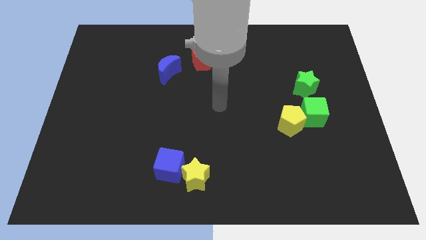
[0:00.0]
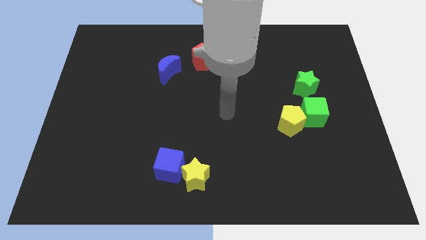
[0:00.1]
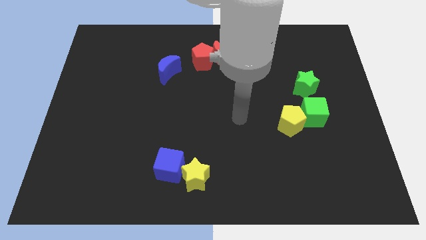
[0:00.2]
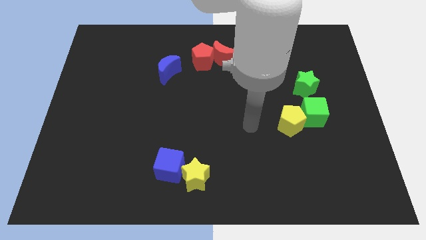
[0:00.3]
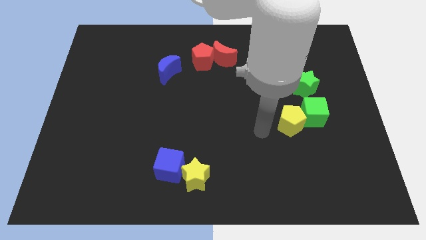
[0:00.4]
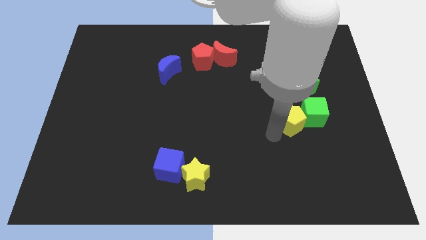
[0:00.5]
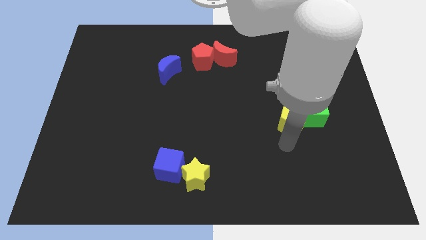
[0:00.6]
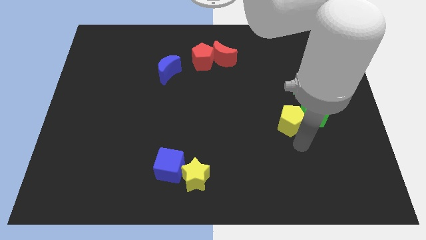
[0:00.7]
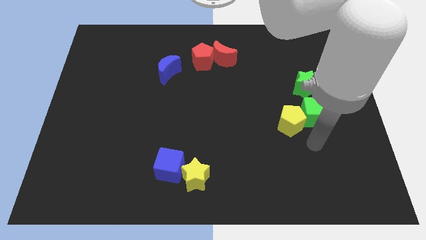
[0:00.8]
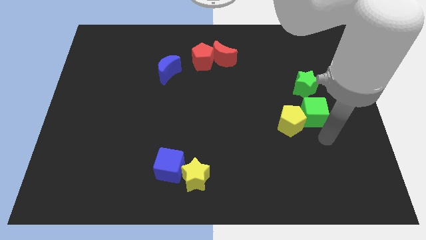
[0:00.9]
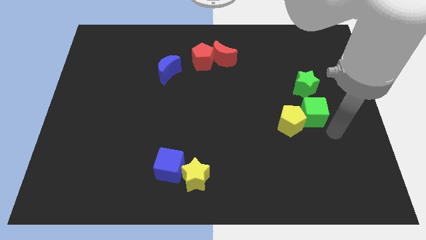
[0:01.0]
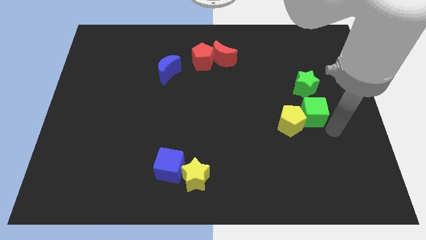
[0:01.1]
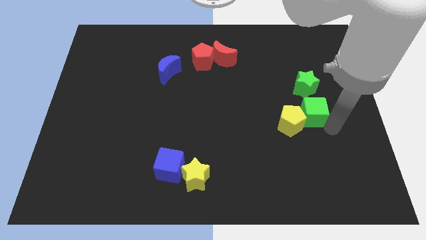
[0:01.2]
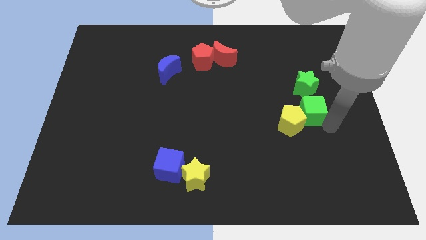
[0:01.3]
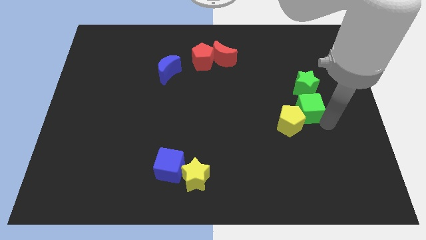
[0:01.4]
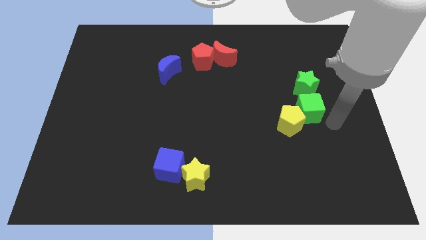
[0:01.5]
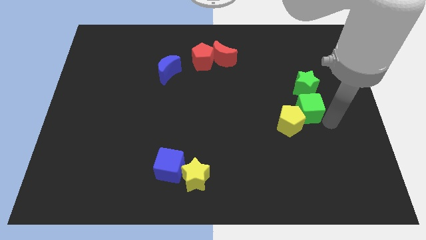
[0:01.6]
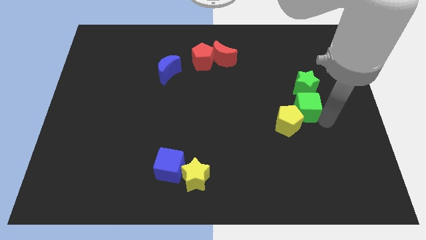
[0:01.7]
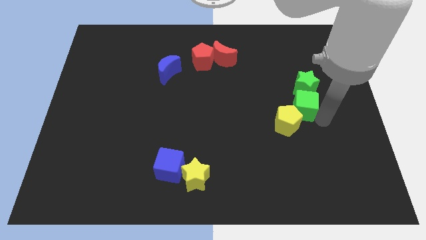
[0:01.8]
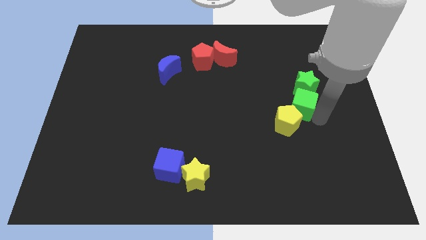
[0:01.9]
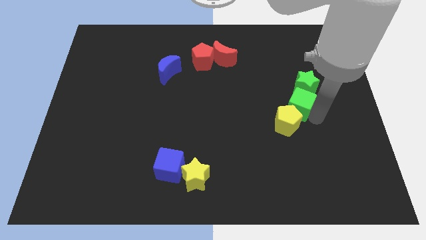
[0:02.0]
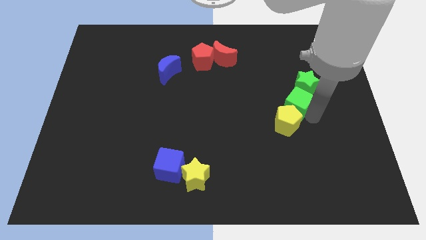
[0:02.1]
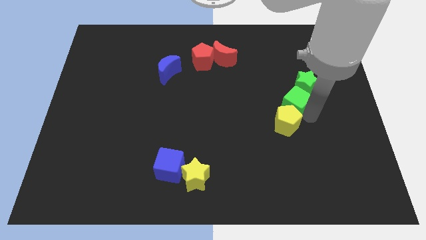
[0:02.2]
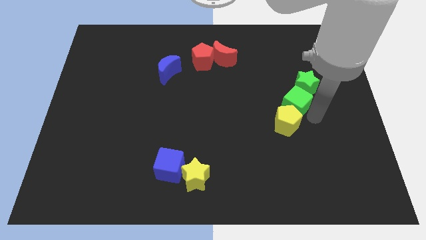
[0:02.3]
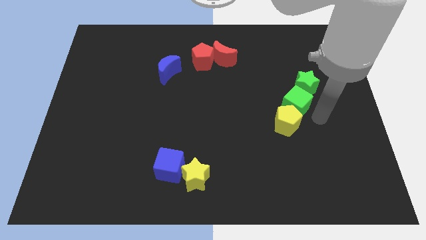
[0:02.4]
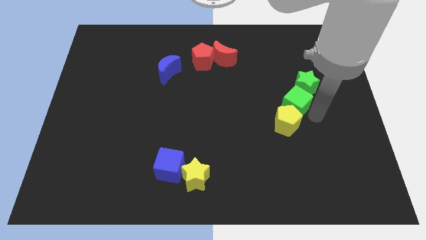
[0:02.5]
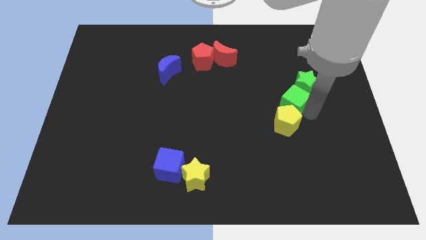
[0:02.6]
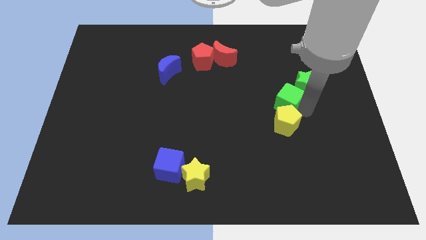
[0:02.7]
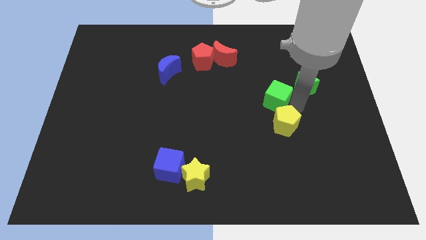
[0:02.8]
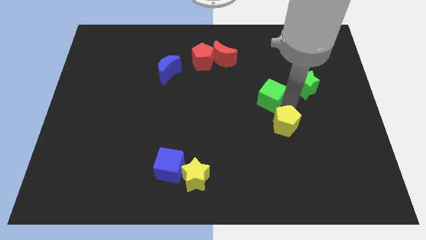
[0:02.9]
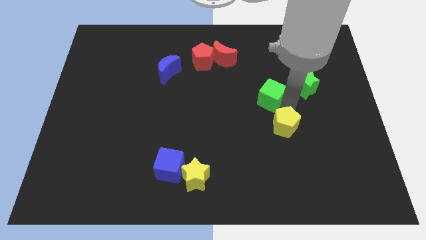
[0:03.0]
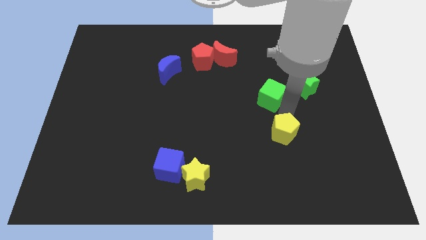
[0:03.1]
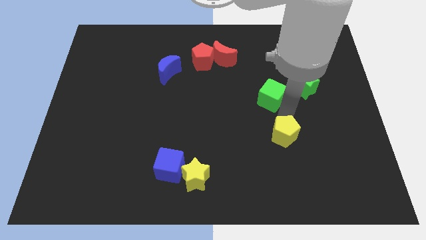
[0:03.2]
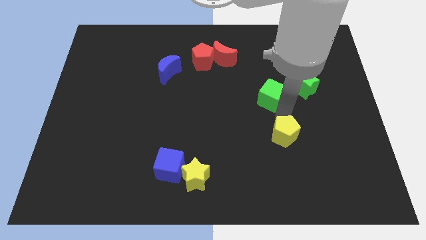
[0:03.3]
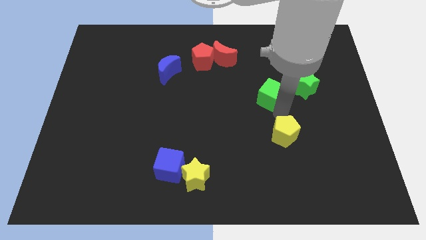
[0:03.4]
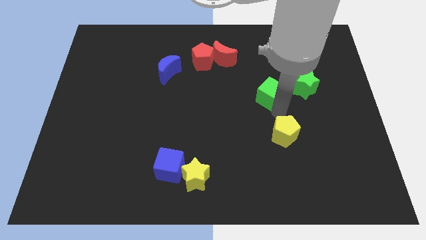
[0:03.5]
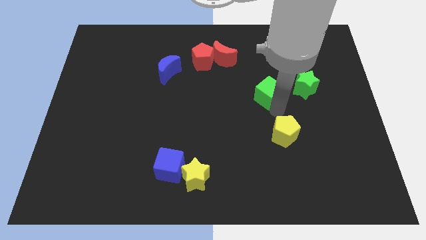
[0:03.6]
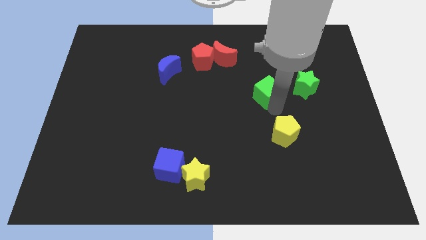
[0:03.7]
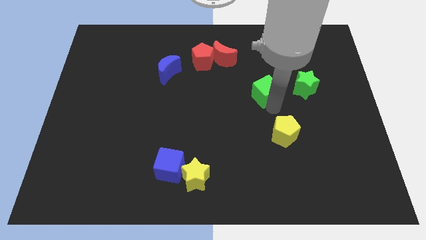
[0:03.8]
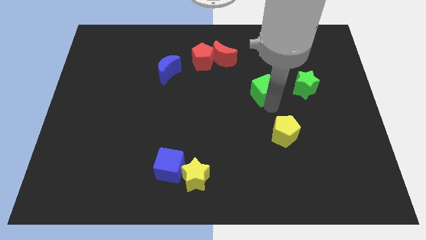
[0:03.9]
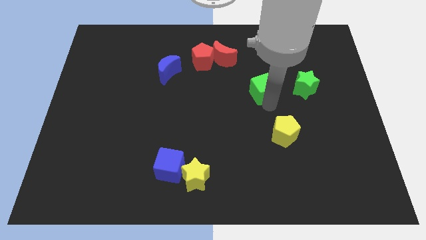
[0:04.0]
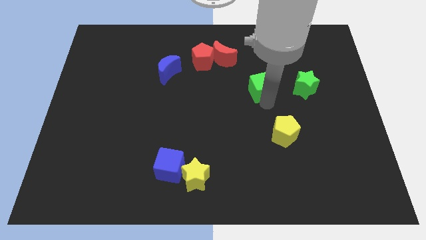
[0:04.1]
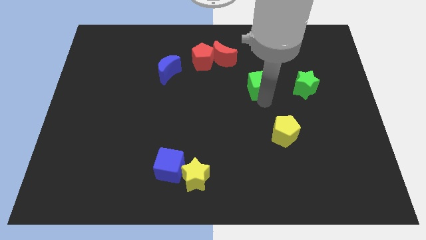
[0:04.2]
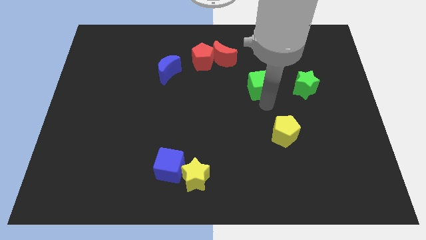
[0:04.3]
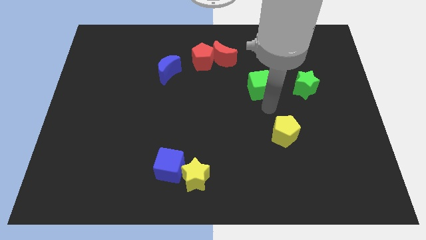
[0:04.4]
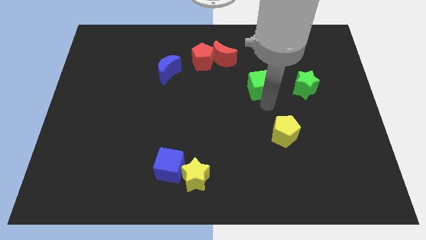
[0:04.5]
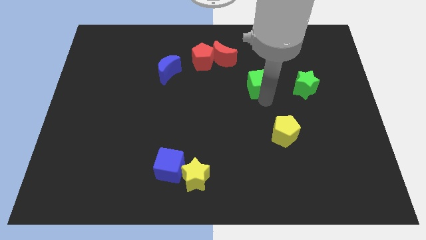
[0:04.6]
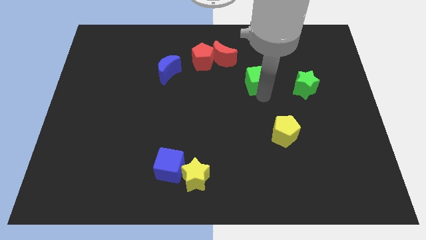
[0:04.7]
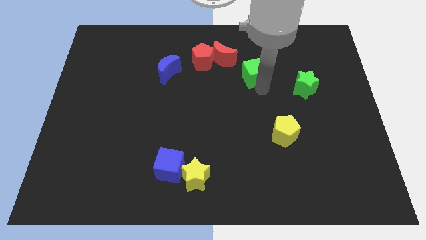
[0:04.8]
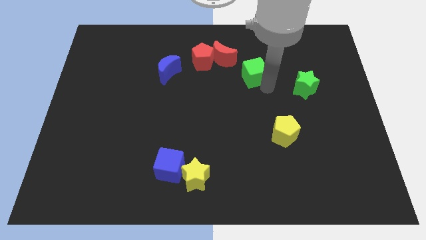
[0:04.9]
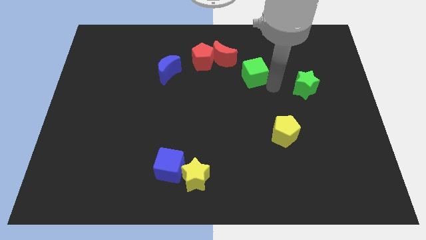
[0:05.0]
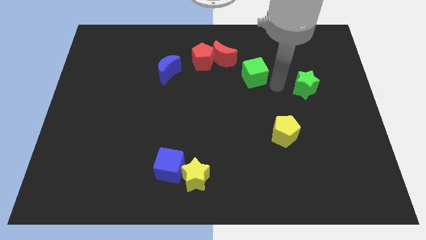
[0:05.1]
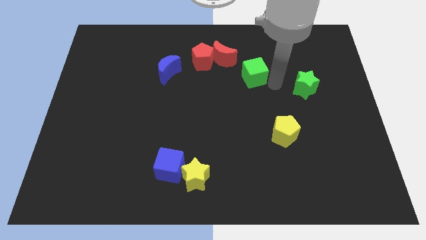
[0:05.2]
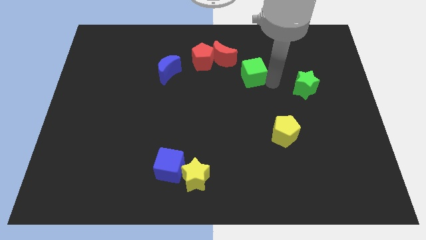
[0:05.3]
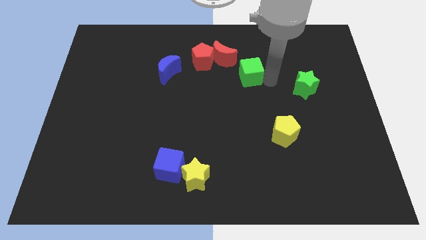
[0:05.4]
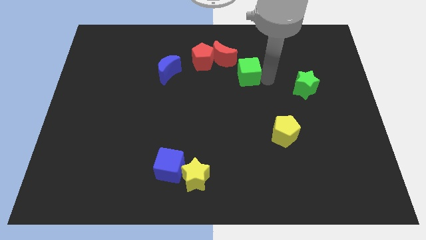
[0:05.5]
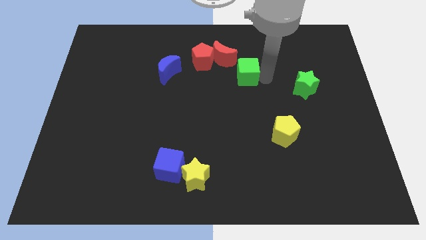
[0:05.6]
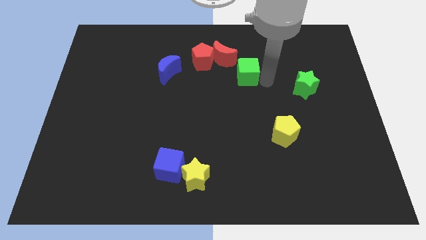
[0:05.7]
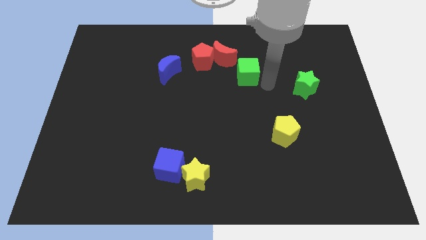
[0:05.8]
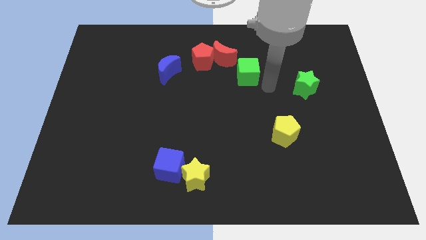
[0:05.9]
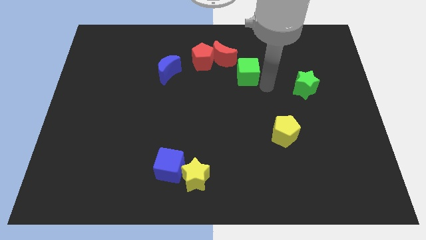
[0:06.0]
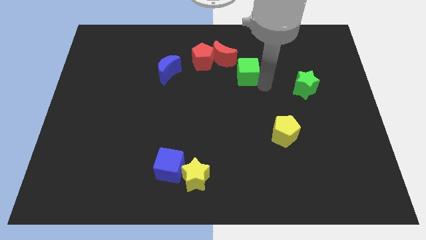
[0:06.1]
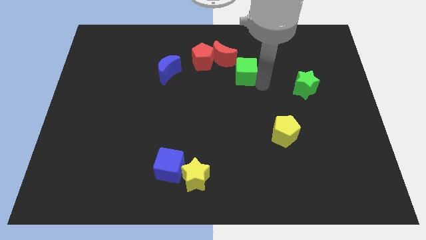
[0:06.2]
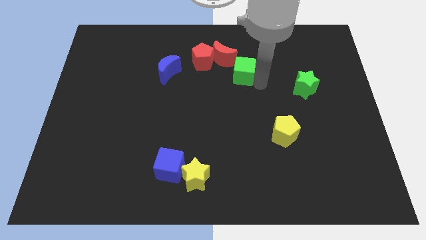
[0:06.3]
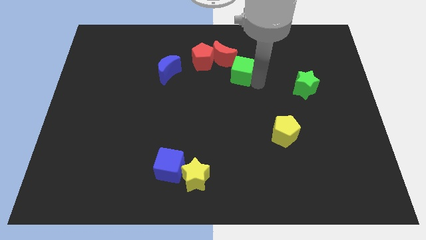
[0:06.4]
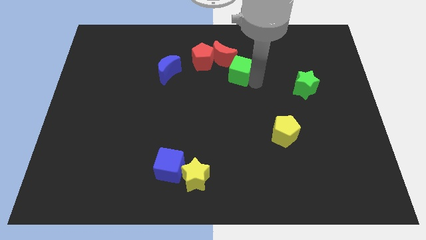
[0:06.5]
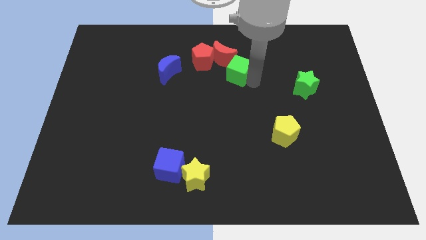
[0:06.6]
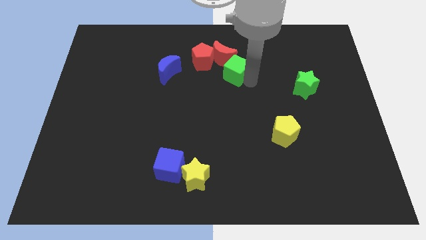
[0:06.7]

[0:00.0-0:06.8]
move the green cube to the red moon

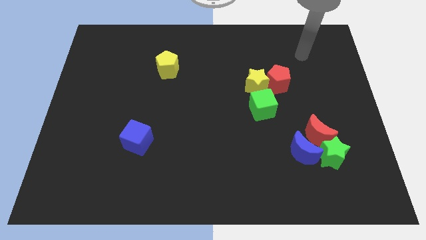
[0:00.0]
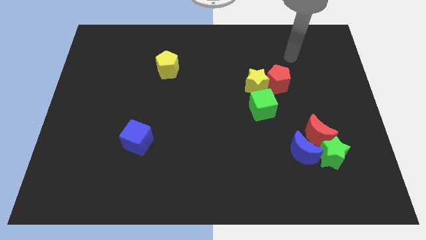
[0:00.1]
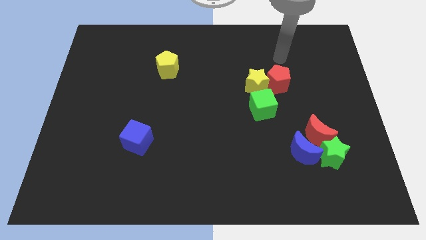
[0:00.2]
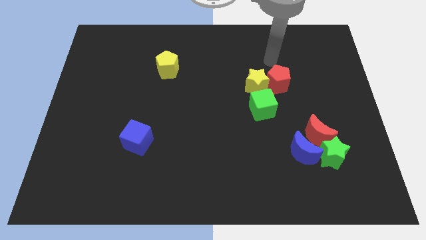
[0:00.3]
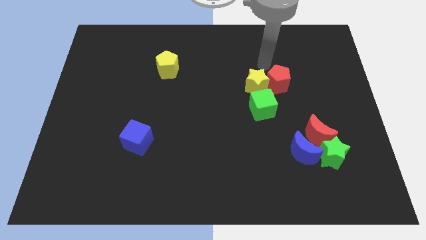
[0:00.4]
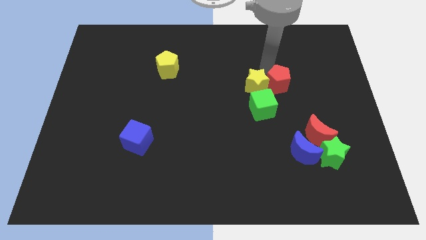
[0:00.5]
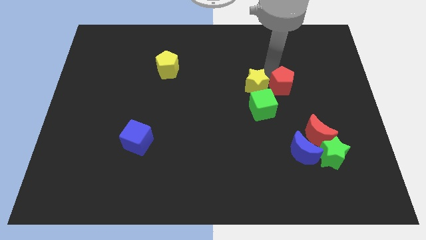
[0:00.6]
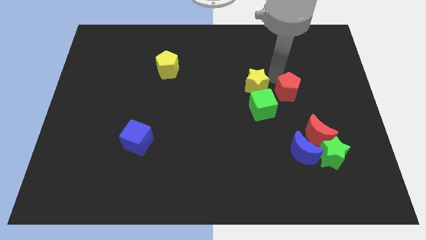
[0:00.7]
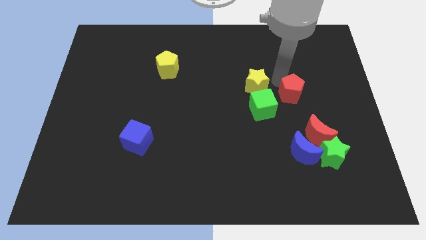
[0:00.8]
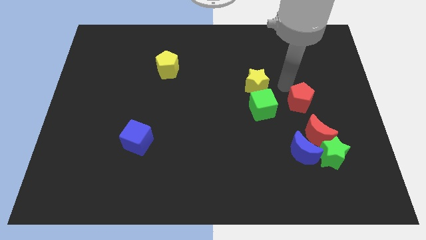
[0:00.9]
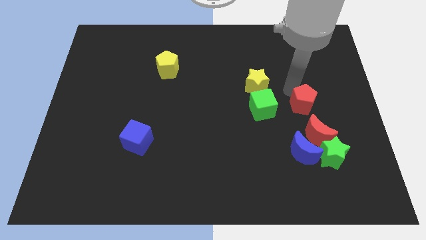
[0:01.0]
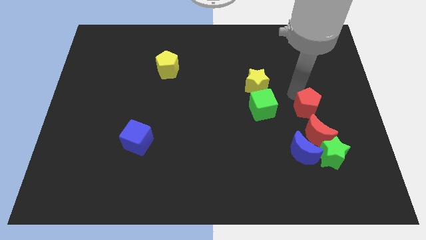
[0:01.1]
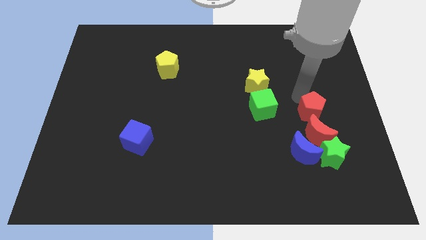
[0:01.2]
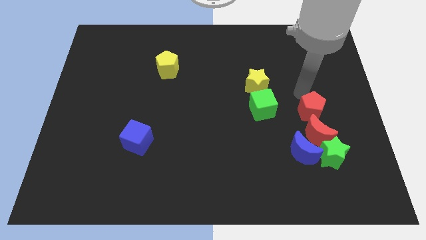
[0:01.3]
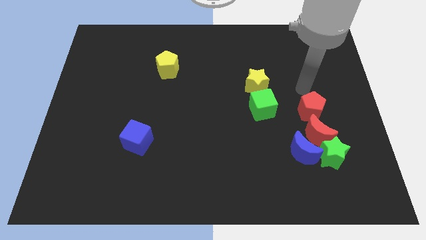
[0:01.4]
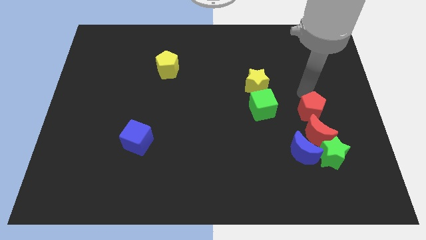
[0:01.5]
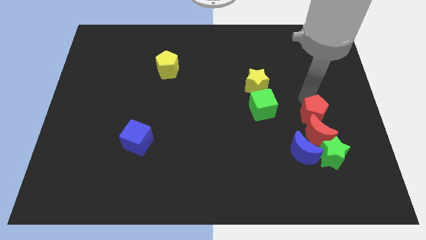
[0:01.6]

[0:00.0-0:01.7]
slide the red pentagon to the red moon
